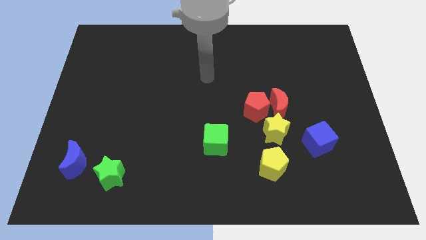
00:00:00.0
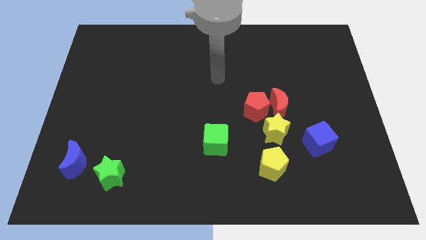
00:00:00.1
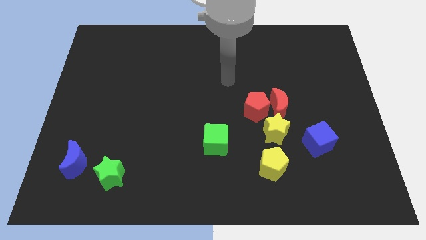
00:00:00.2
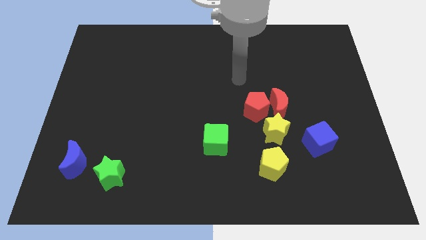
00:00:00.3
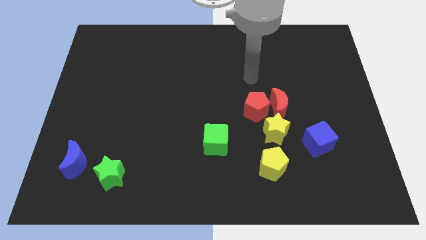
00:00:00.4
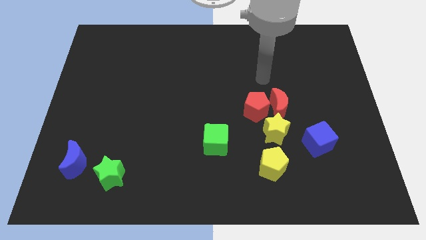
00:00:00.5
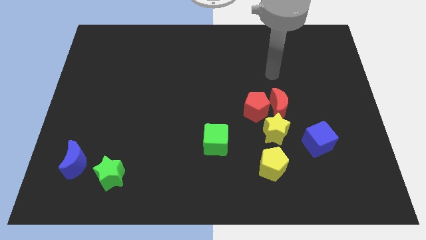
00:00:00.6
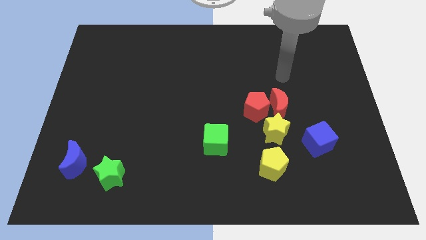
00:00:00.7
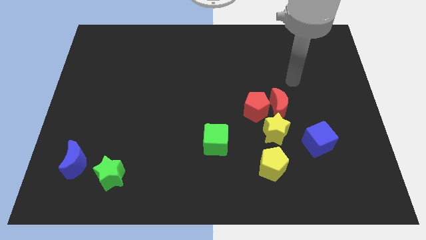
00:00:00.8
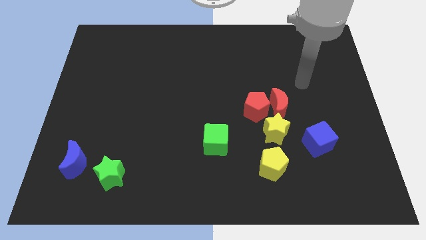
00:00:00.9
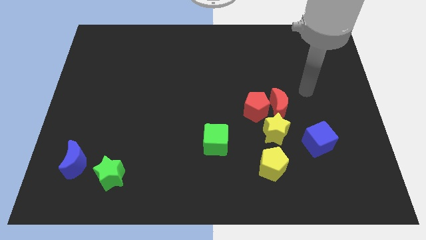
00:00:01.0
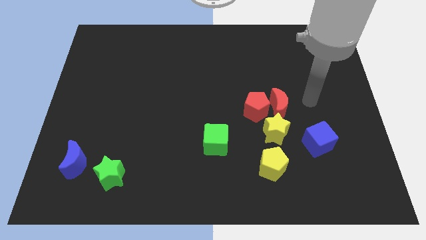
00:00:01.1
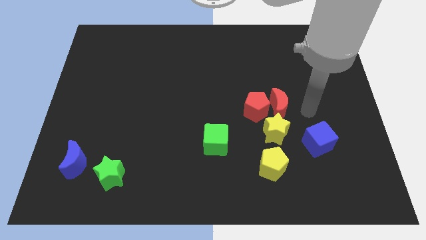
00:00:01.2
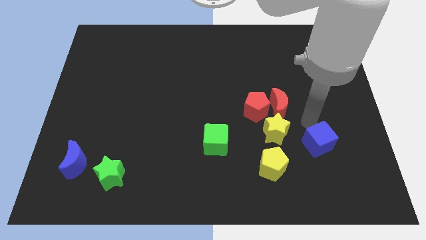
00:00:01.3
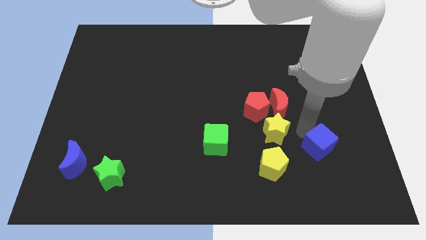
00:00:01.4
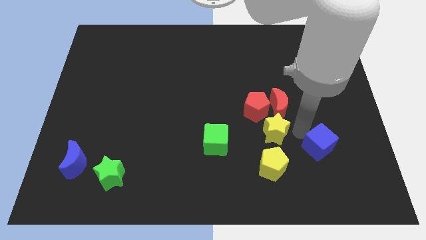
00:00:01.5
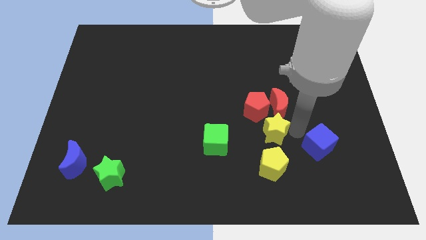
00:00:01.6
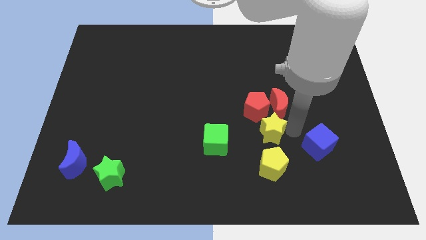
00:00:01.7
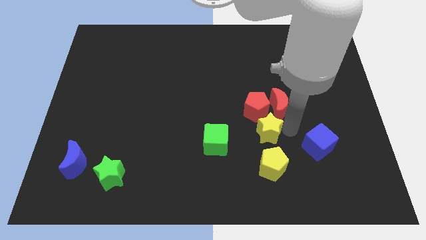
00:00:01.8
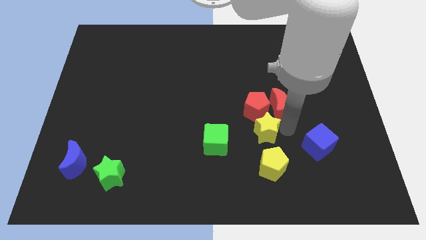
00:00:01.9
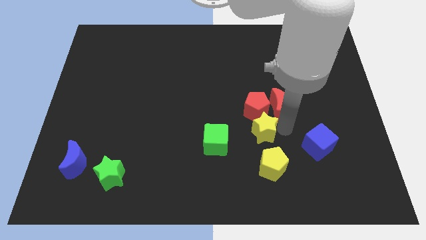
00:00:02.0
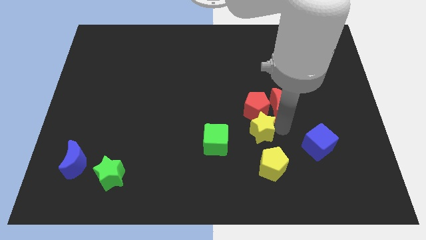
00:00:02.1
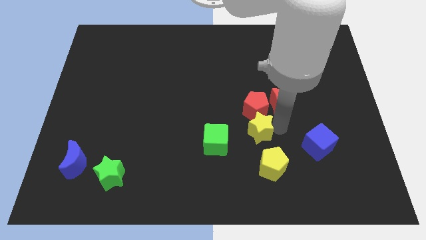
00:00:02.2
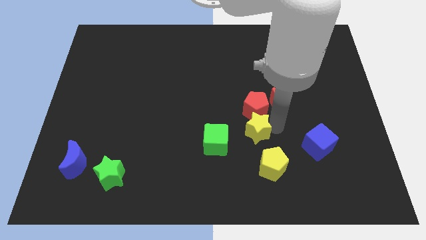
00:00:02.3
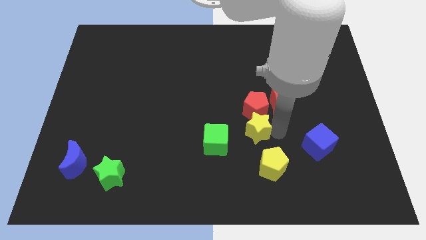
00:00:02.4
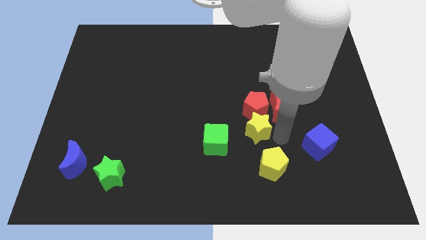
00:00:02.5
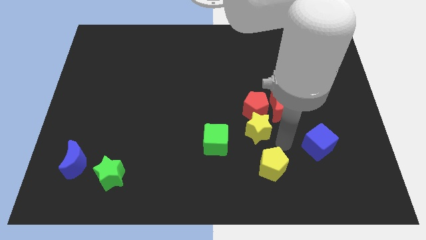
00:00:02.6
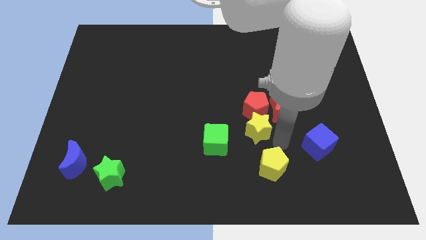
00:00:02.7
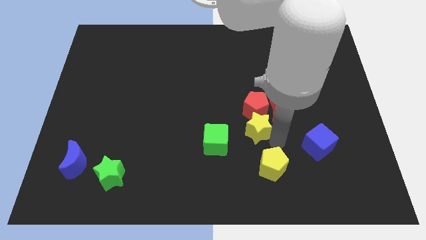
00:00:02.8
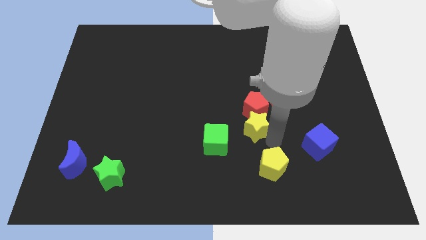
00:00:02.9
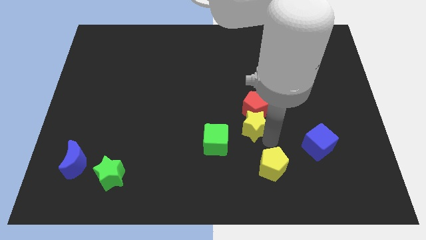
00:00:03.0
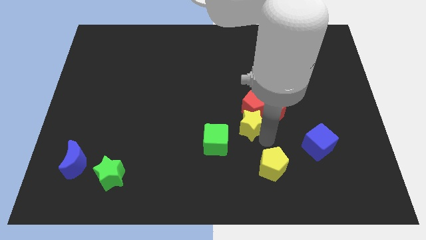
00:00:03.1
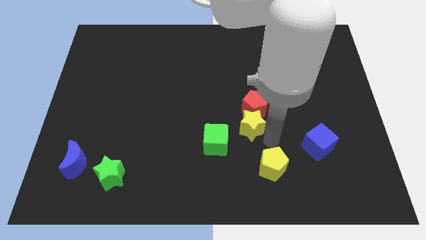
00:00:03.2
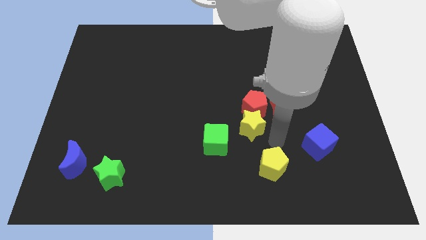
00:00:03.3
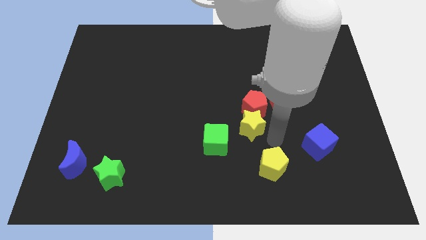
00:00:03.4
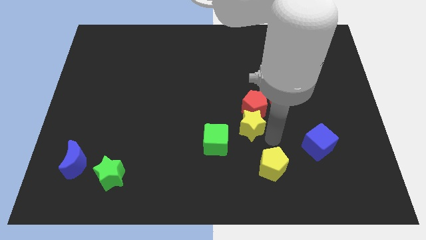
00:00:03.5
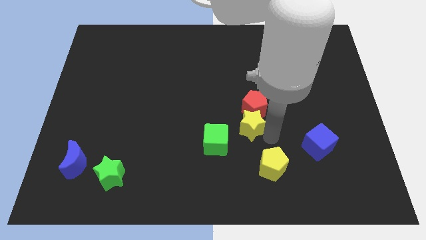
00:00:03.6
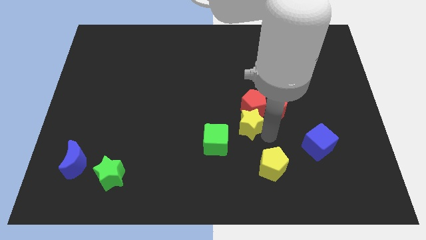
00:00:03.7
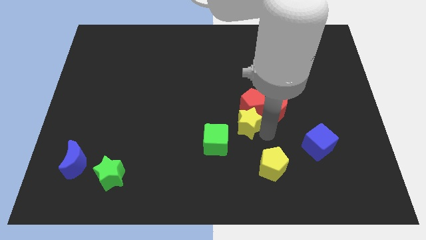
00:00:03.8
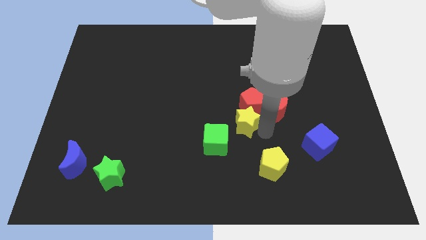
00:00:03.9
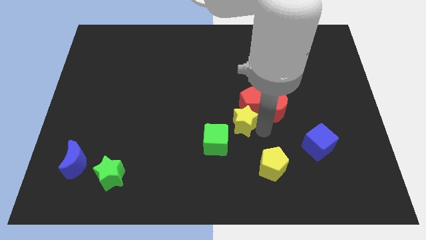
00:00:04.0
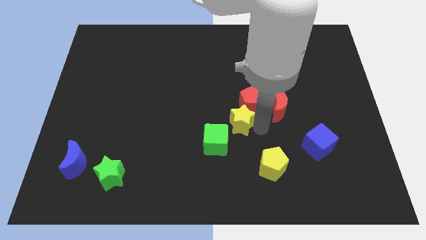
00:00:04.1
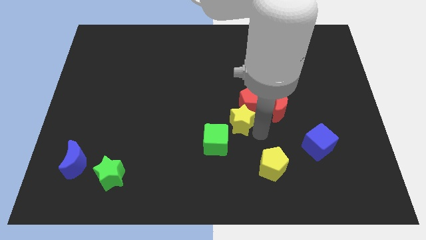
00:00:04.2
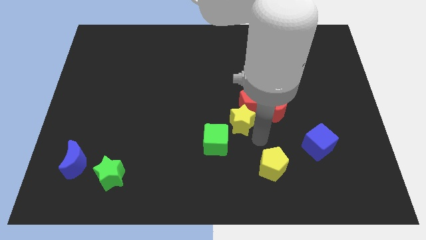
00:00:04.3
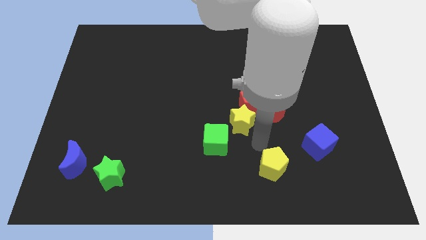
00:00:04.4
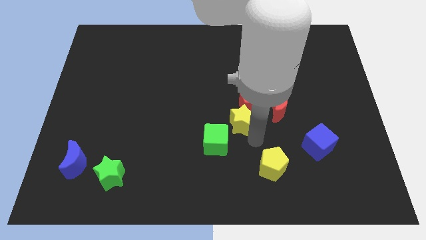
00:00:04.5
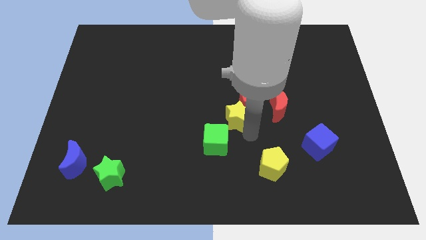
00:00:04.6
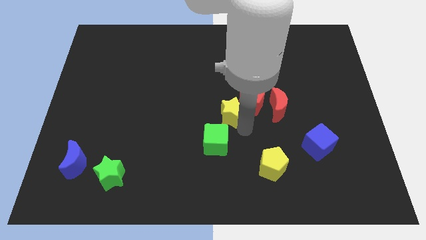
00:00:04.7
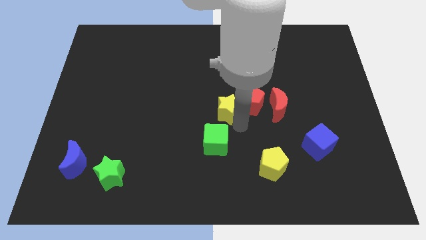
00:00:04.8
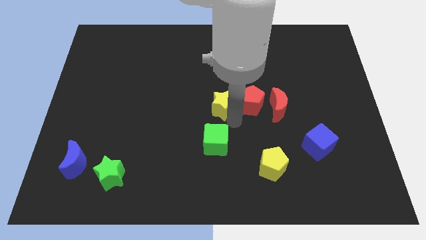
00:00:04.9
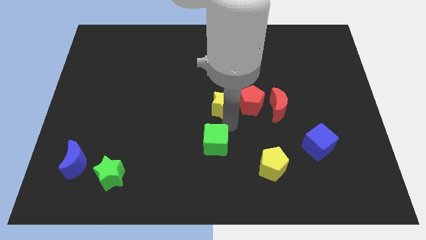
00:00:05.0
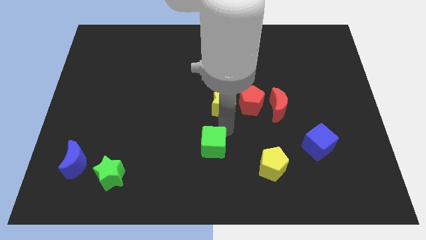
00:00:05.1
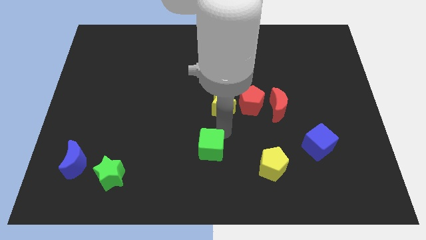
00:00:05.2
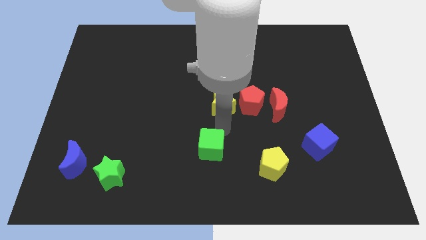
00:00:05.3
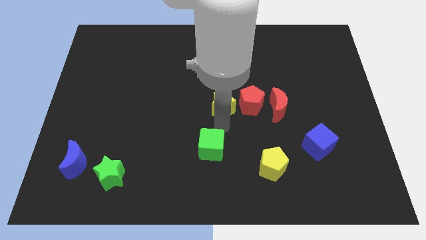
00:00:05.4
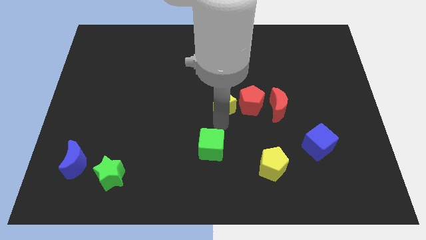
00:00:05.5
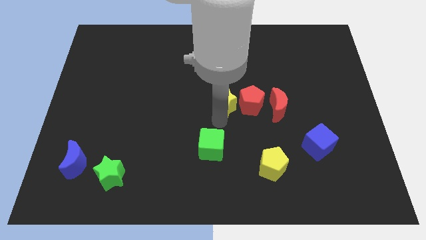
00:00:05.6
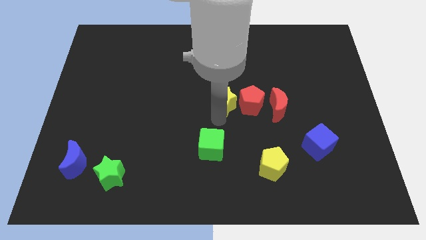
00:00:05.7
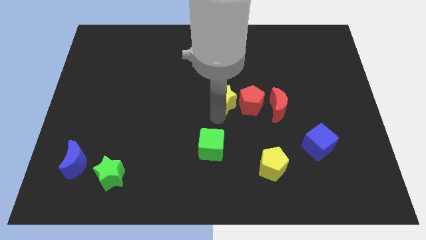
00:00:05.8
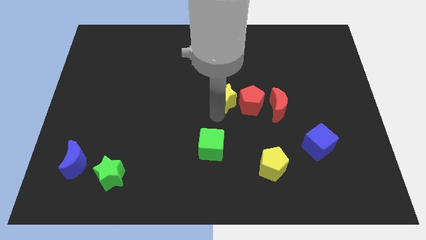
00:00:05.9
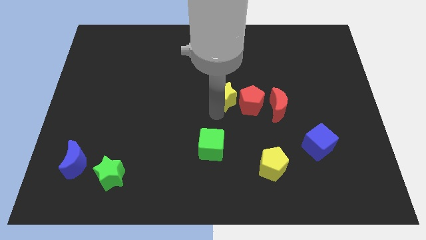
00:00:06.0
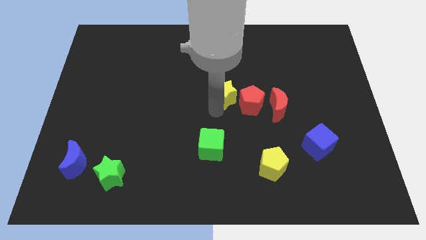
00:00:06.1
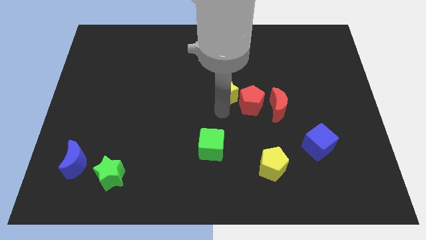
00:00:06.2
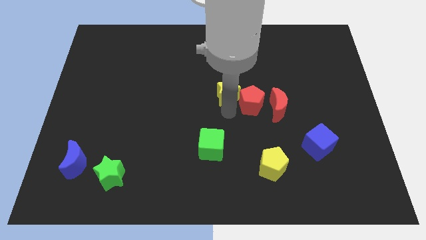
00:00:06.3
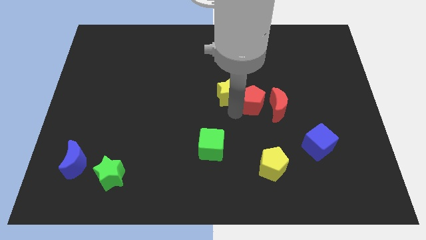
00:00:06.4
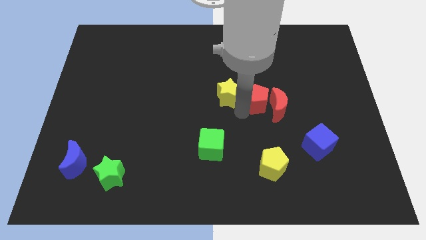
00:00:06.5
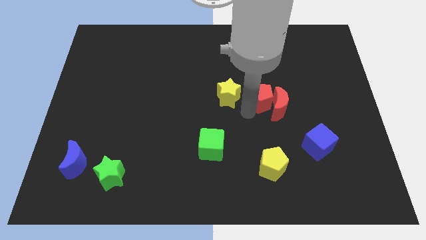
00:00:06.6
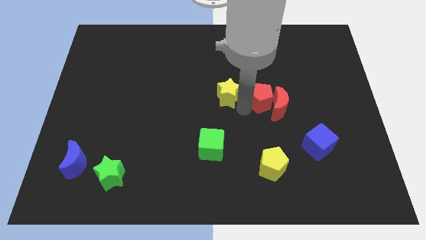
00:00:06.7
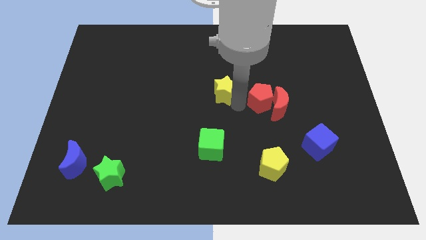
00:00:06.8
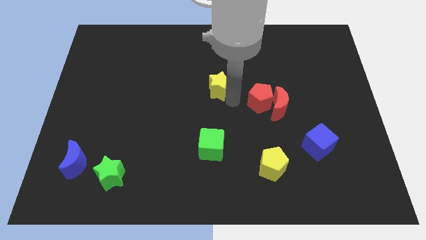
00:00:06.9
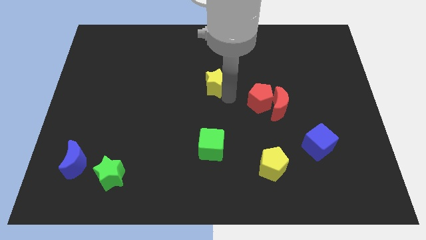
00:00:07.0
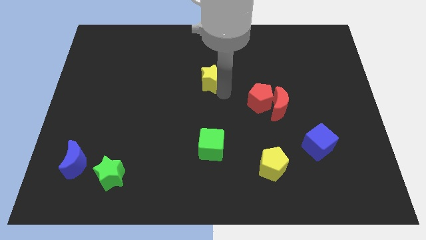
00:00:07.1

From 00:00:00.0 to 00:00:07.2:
slide the yellow star up and left

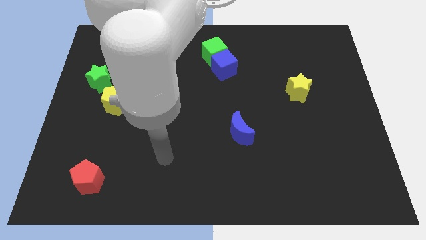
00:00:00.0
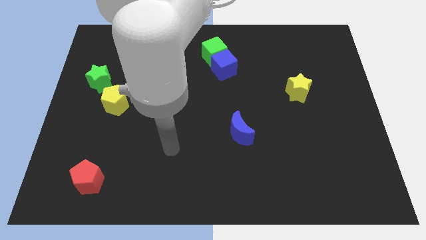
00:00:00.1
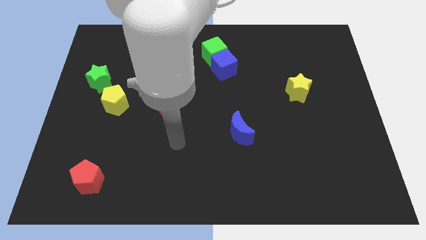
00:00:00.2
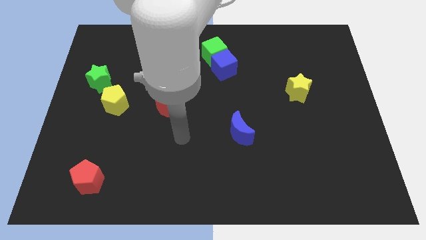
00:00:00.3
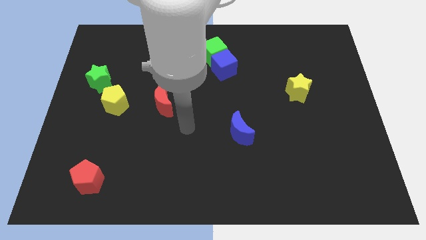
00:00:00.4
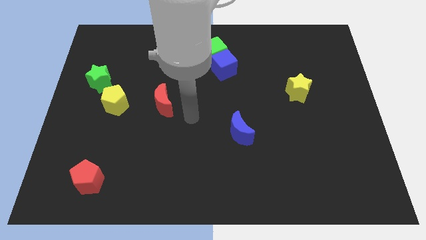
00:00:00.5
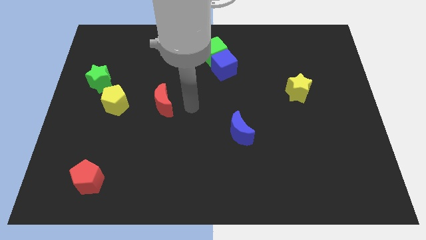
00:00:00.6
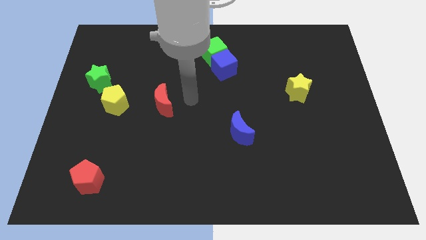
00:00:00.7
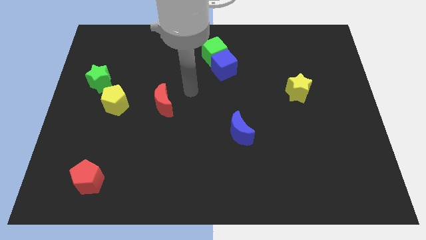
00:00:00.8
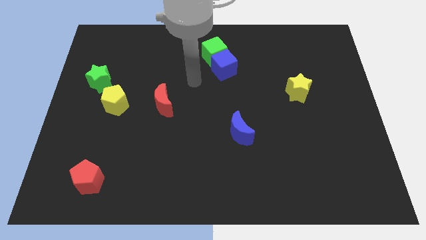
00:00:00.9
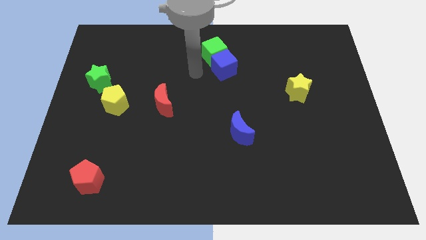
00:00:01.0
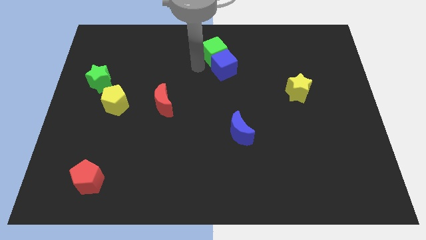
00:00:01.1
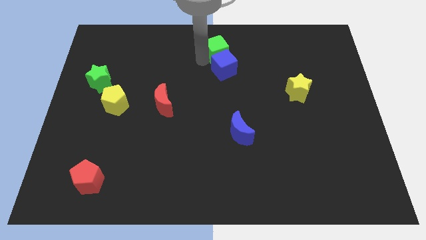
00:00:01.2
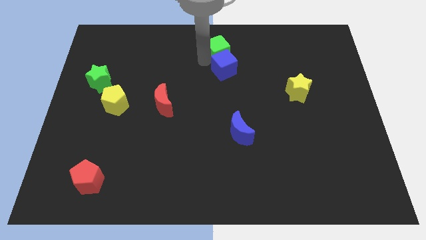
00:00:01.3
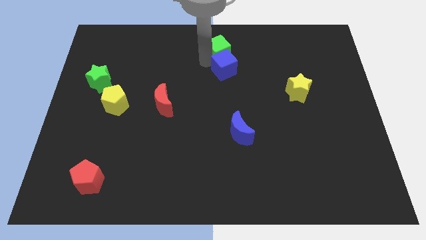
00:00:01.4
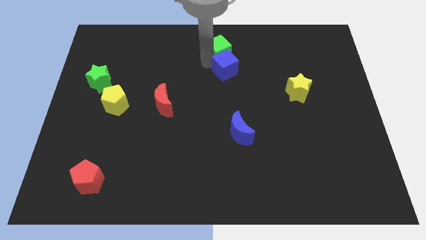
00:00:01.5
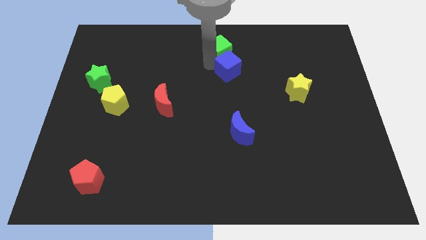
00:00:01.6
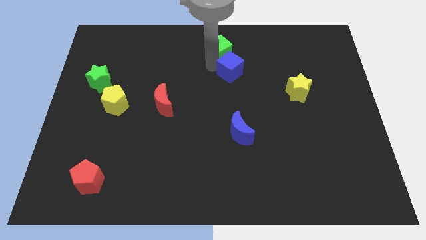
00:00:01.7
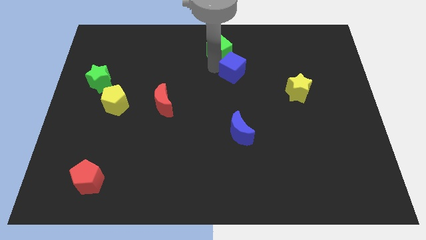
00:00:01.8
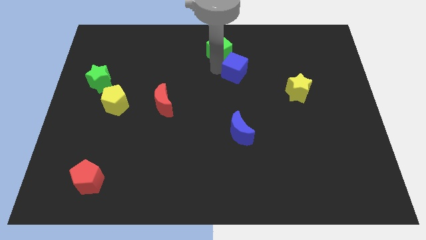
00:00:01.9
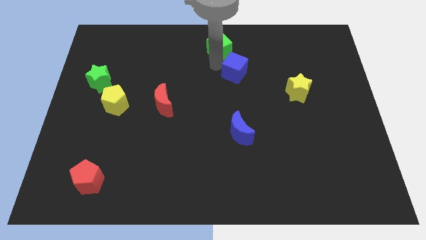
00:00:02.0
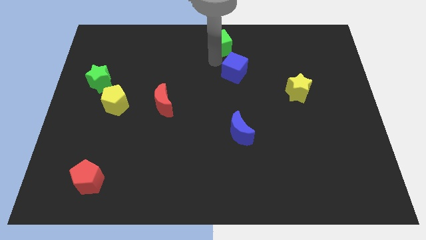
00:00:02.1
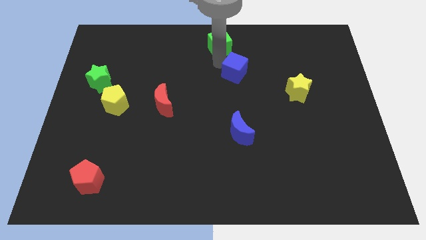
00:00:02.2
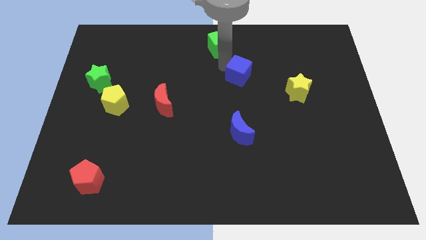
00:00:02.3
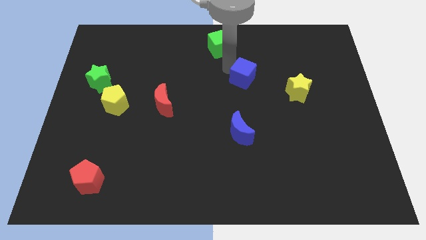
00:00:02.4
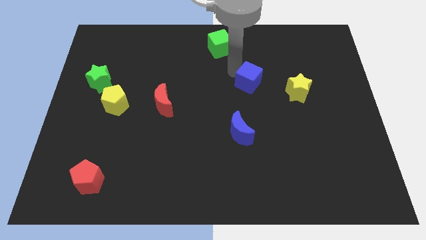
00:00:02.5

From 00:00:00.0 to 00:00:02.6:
slightly push the blue cube downwards and to the right diagonally
